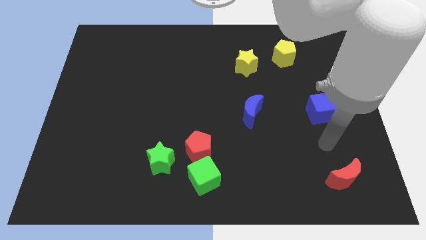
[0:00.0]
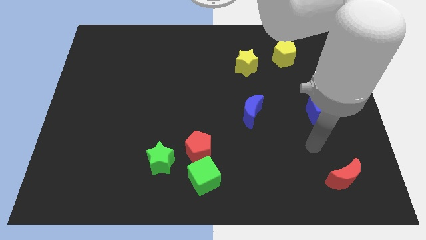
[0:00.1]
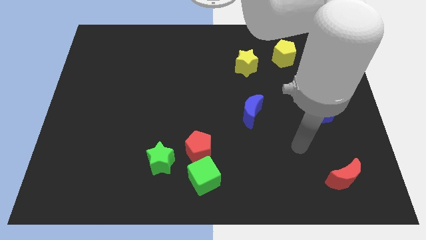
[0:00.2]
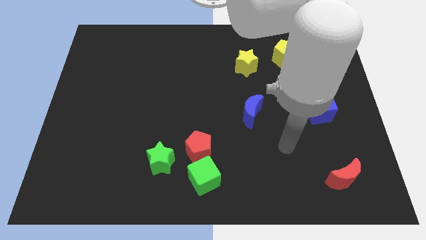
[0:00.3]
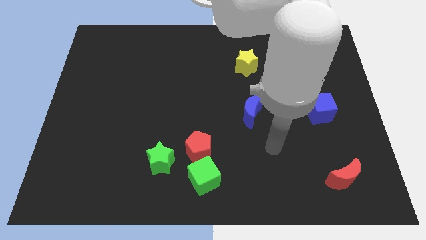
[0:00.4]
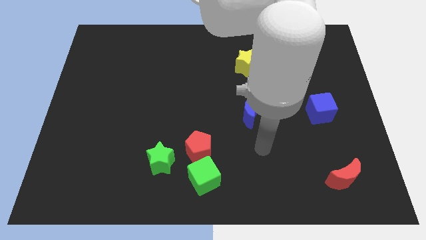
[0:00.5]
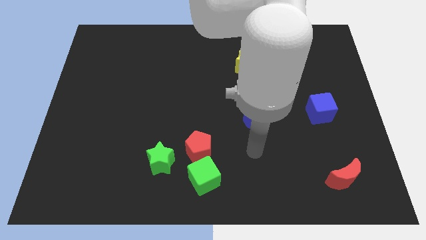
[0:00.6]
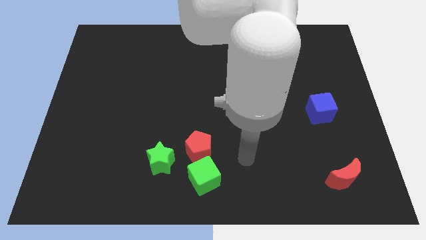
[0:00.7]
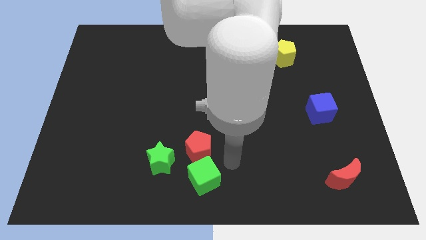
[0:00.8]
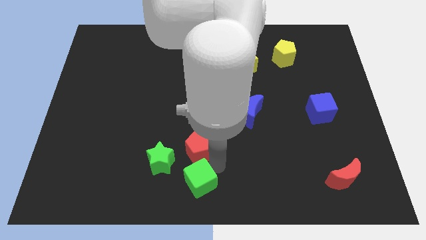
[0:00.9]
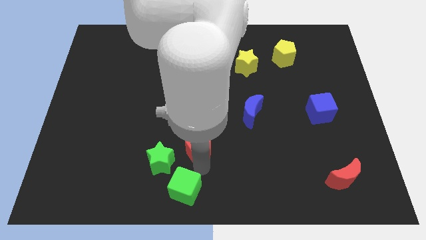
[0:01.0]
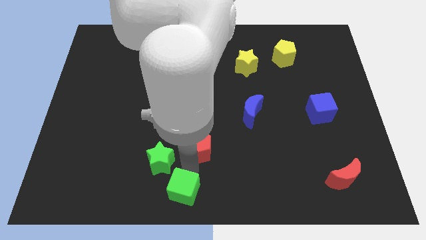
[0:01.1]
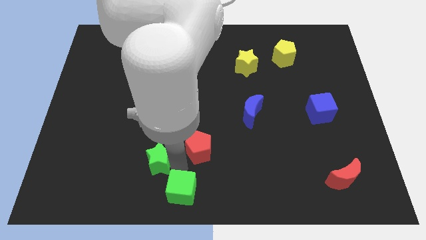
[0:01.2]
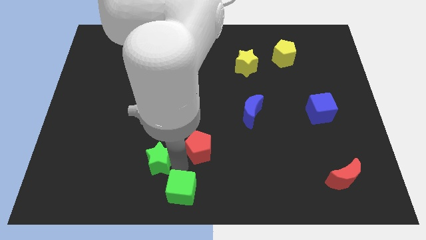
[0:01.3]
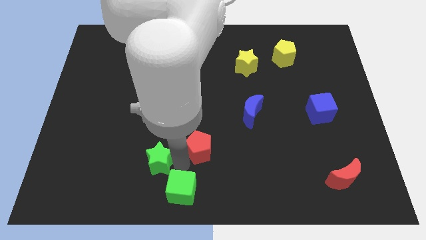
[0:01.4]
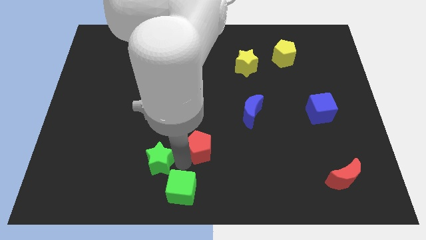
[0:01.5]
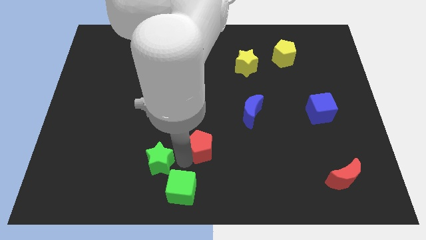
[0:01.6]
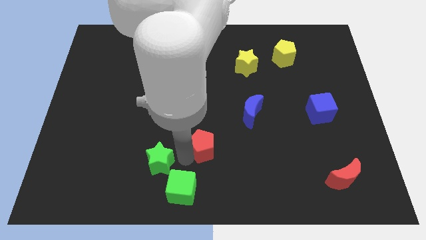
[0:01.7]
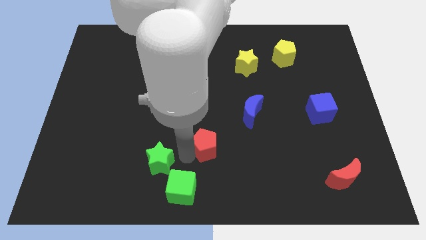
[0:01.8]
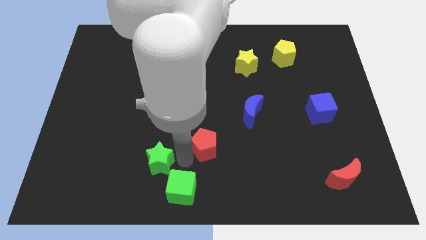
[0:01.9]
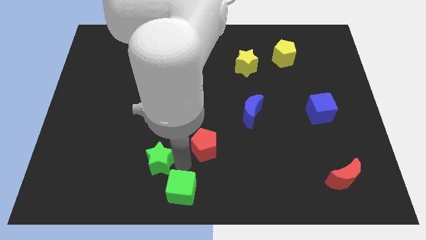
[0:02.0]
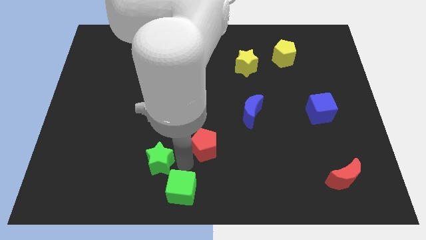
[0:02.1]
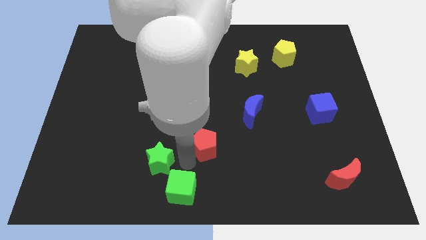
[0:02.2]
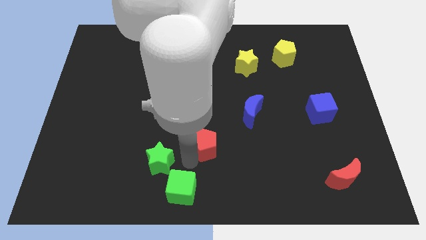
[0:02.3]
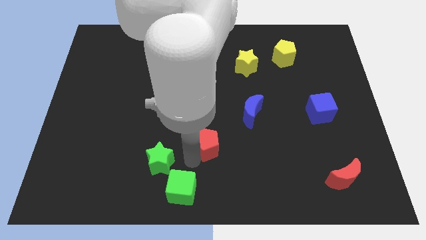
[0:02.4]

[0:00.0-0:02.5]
pull the red pentagon apart from the green cube and green star

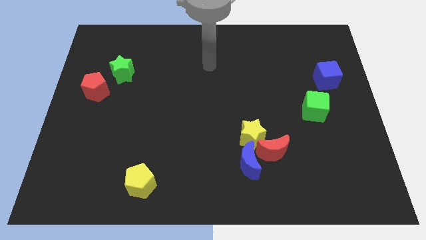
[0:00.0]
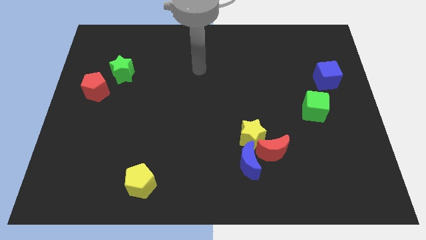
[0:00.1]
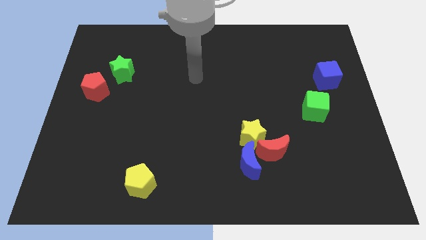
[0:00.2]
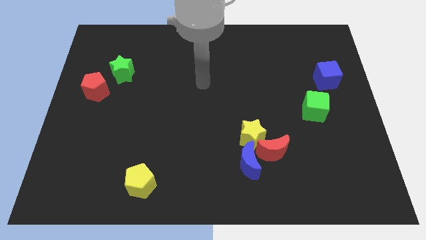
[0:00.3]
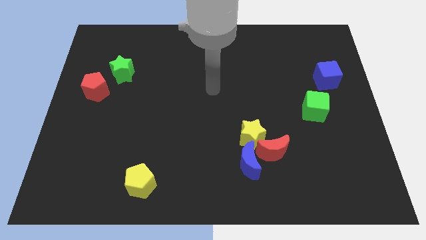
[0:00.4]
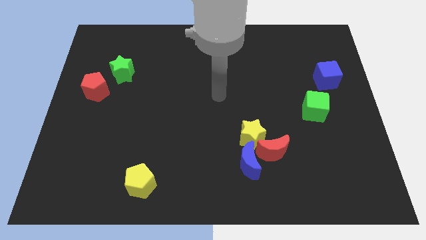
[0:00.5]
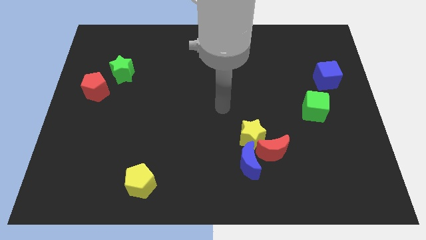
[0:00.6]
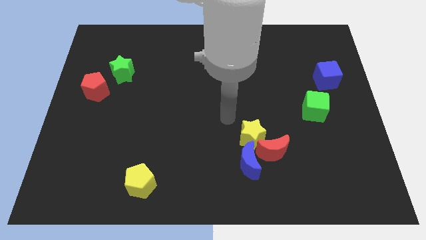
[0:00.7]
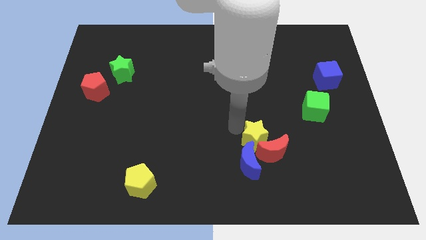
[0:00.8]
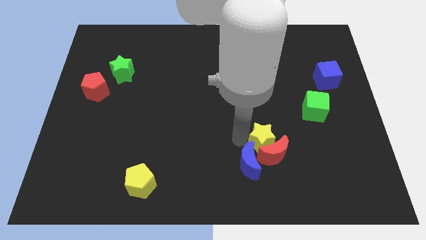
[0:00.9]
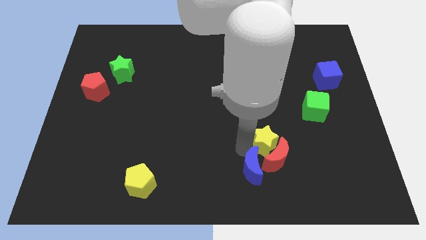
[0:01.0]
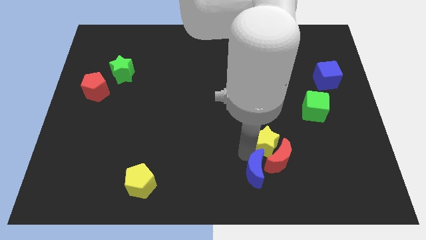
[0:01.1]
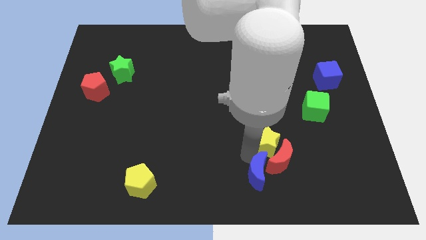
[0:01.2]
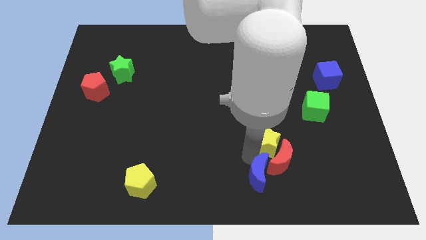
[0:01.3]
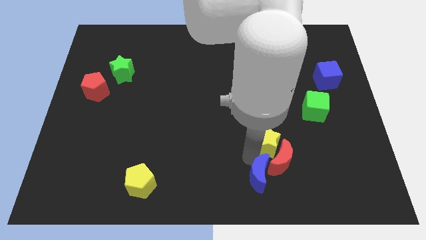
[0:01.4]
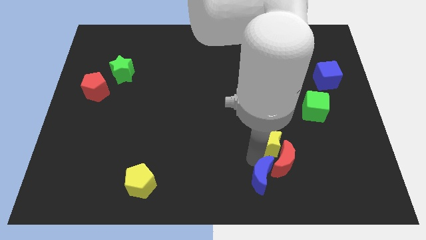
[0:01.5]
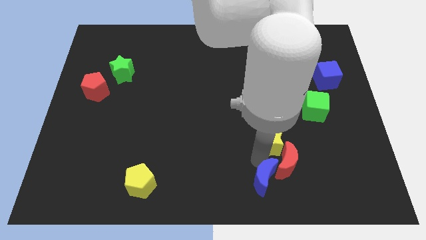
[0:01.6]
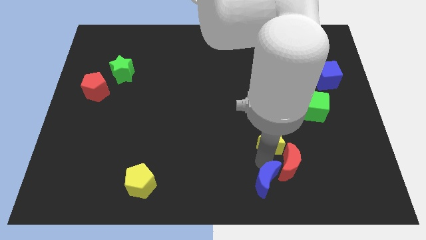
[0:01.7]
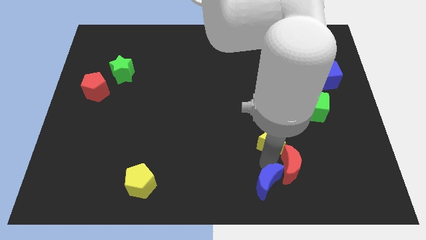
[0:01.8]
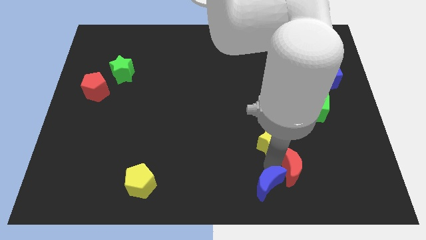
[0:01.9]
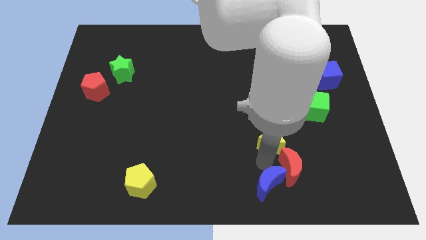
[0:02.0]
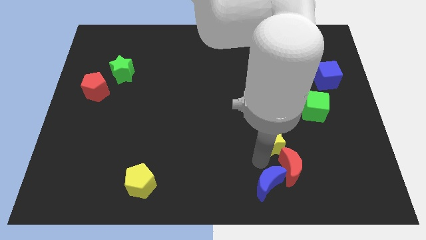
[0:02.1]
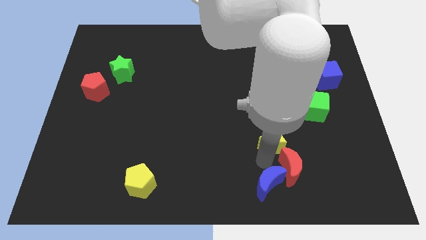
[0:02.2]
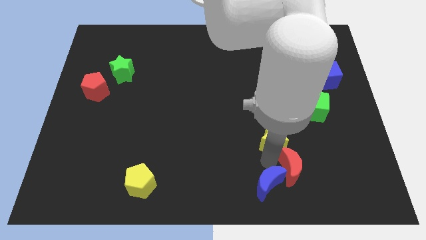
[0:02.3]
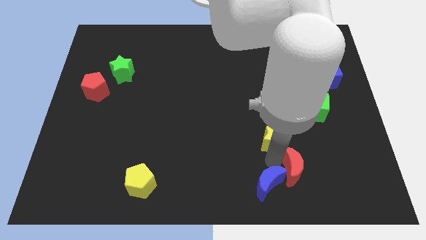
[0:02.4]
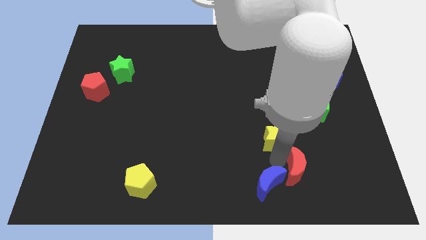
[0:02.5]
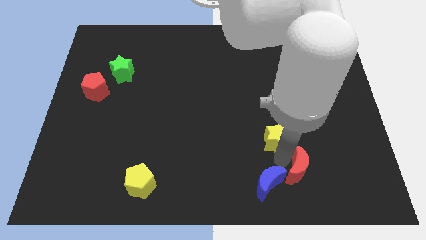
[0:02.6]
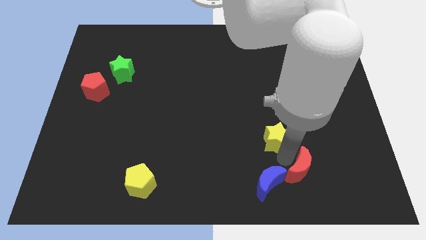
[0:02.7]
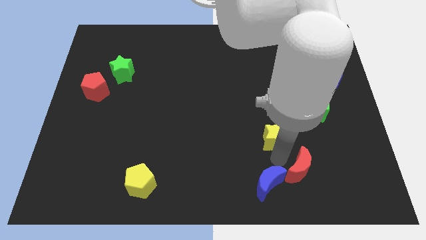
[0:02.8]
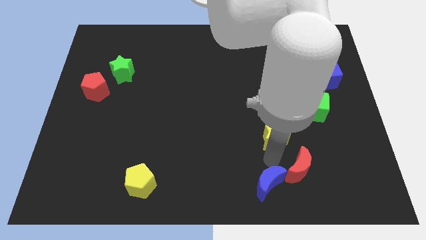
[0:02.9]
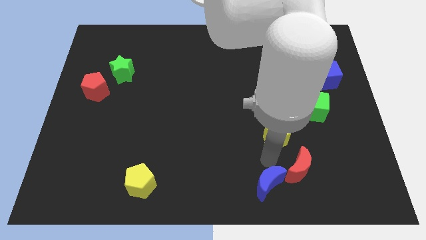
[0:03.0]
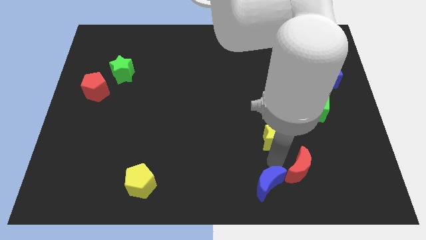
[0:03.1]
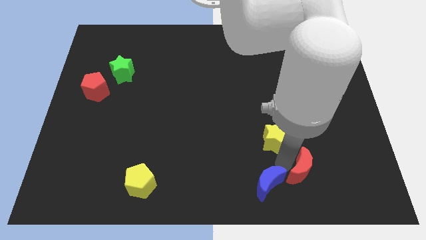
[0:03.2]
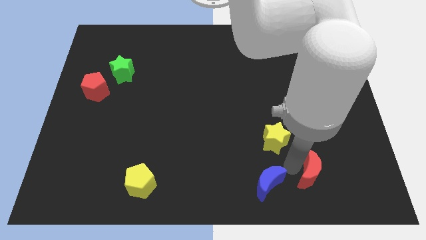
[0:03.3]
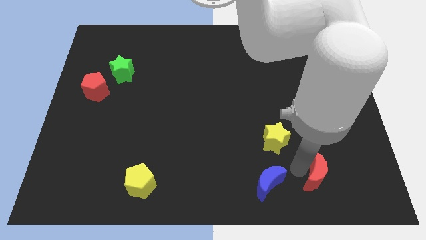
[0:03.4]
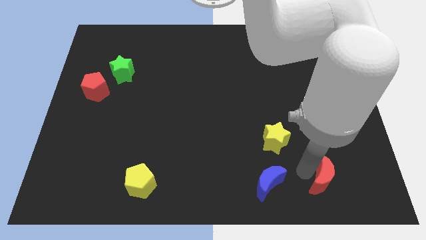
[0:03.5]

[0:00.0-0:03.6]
separate the red moon from the yellow star and blue moon

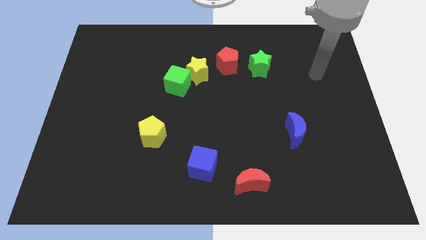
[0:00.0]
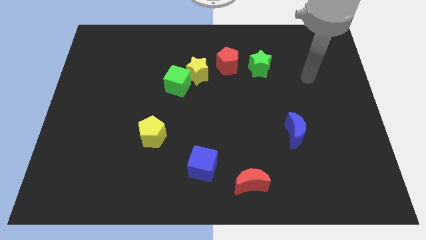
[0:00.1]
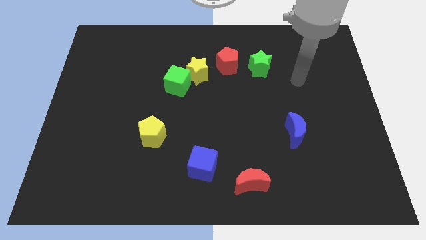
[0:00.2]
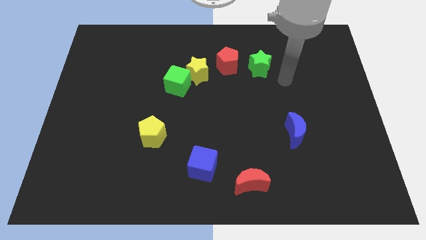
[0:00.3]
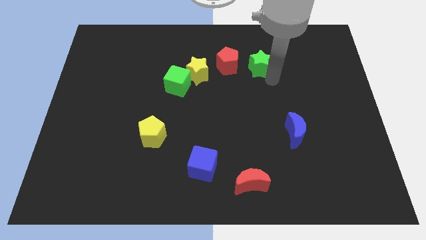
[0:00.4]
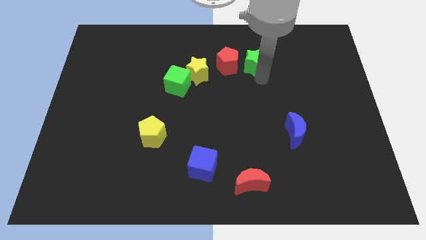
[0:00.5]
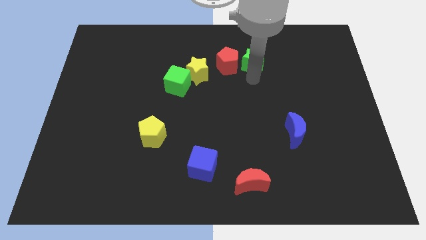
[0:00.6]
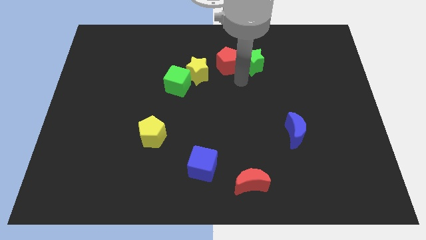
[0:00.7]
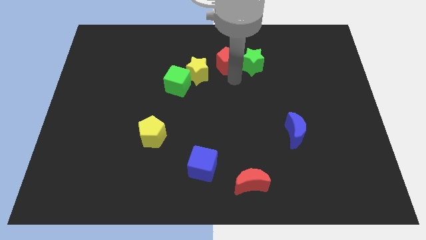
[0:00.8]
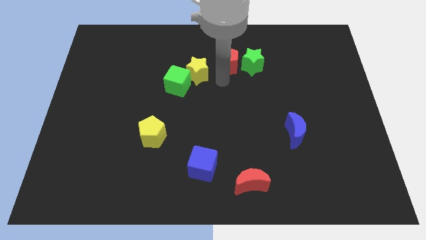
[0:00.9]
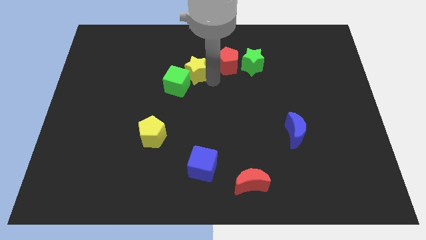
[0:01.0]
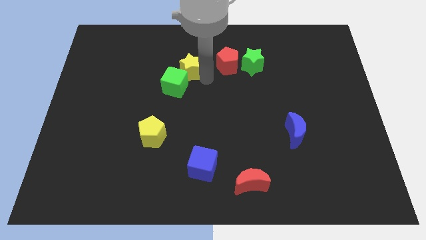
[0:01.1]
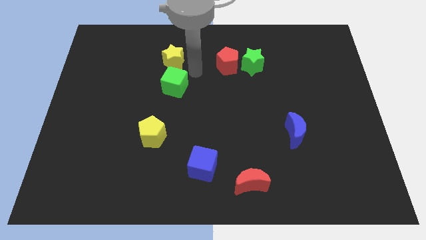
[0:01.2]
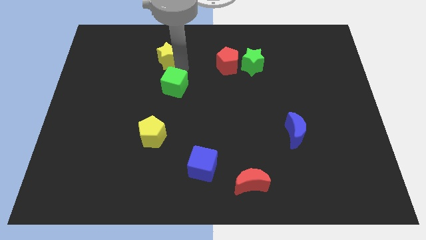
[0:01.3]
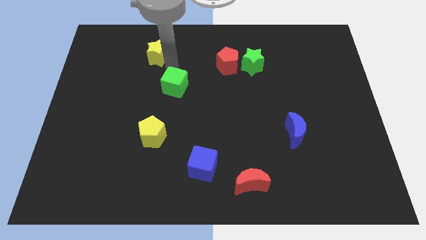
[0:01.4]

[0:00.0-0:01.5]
separate the green cube from the yellow star

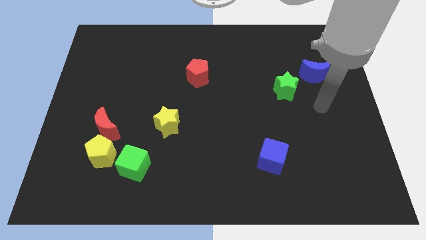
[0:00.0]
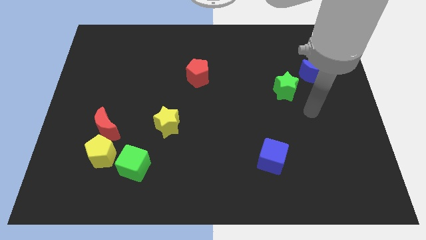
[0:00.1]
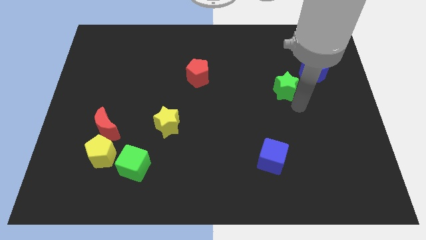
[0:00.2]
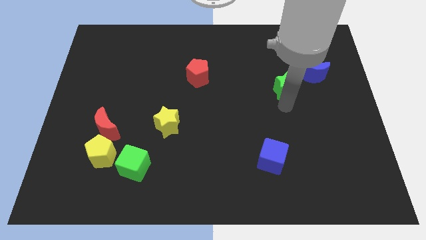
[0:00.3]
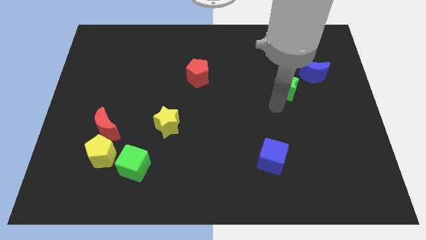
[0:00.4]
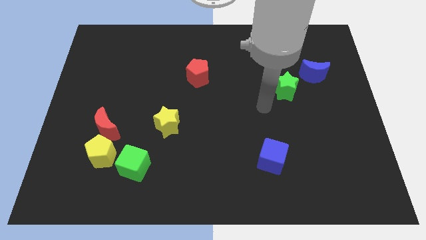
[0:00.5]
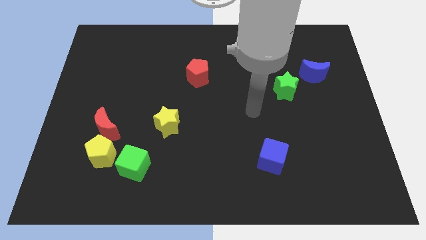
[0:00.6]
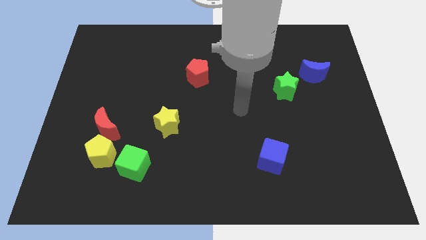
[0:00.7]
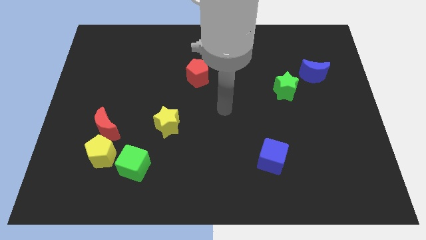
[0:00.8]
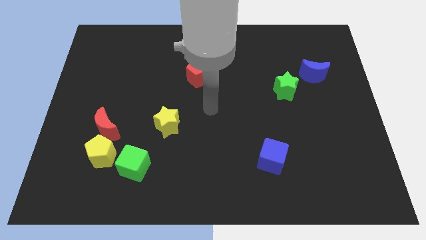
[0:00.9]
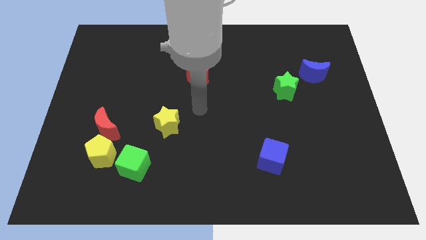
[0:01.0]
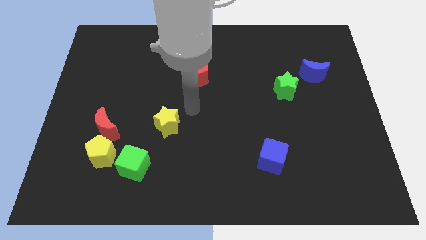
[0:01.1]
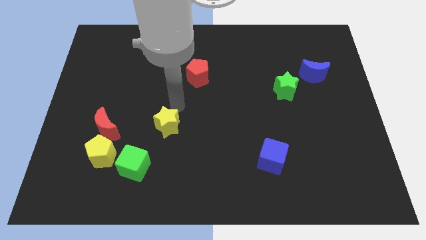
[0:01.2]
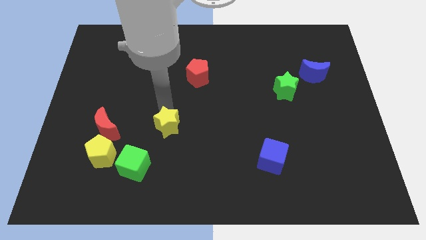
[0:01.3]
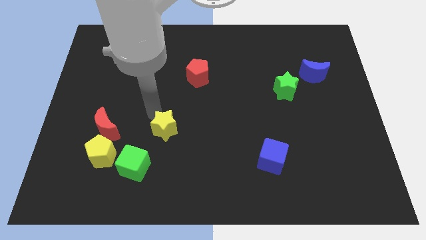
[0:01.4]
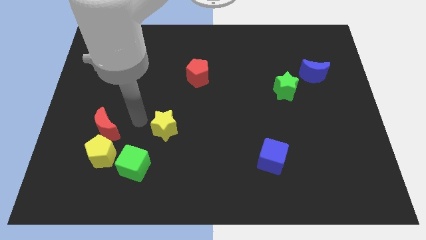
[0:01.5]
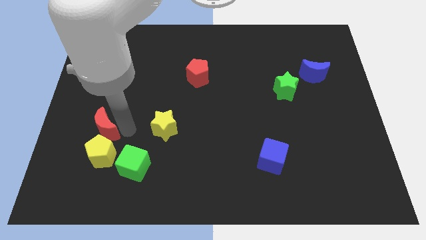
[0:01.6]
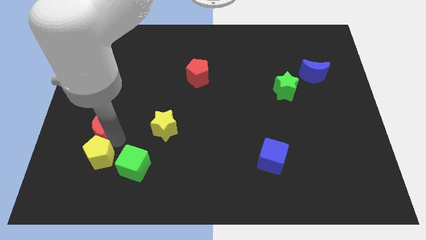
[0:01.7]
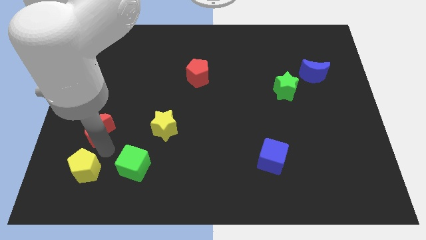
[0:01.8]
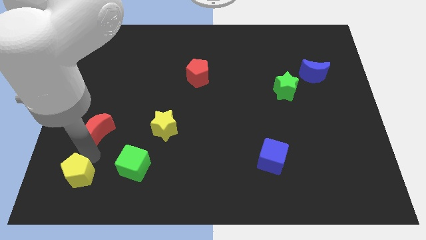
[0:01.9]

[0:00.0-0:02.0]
separate the red moon from the yellow pentagon
